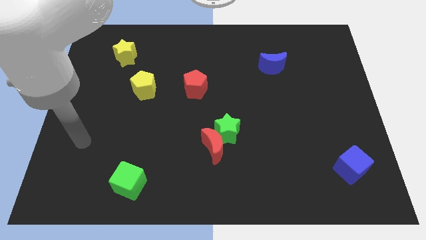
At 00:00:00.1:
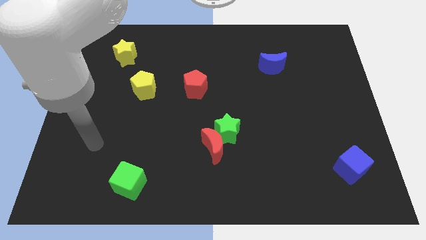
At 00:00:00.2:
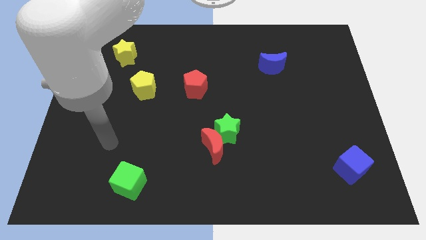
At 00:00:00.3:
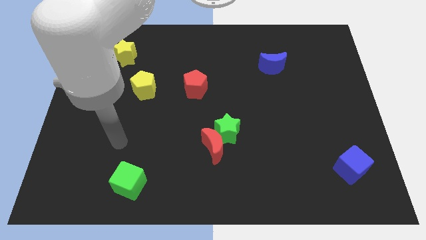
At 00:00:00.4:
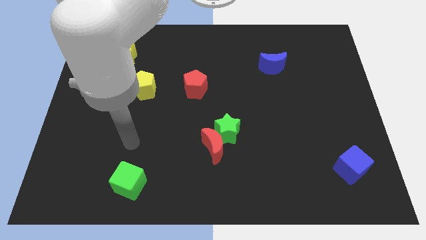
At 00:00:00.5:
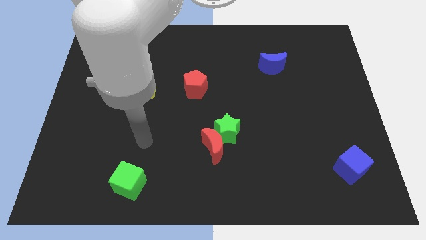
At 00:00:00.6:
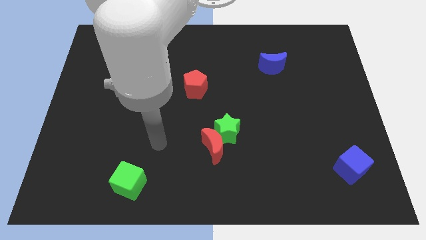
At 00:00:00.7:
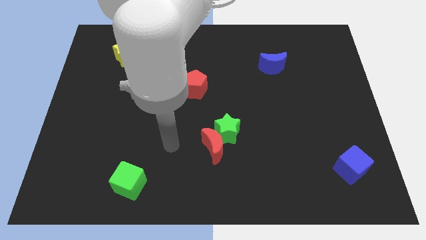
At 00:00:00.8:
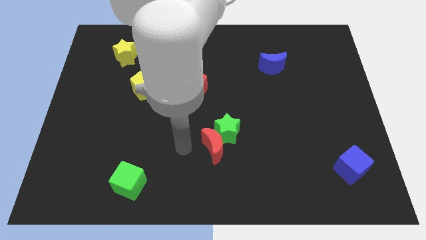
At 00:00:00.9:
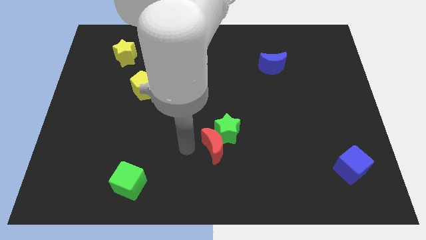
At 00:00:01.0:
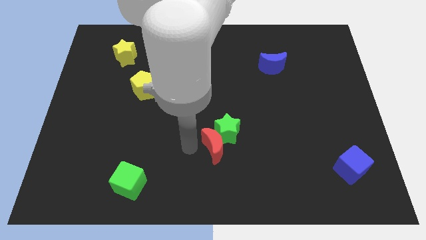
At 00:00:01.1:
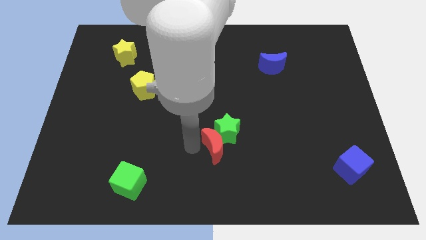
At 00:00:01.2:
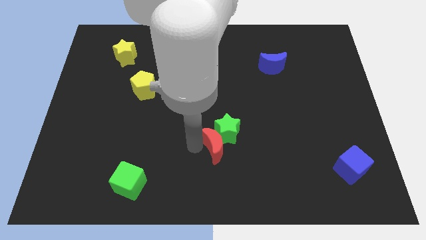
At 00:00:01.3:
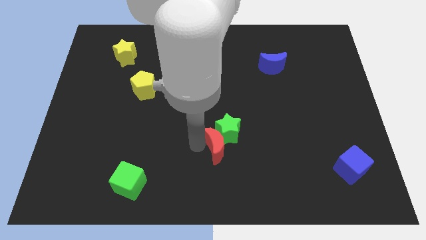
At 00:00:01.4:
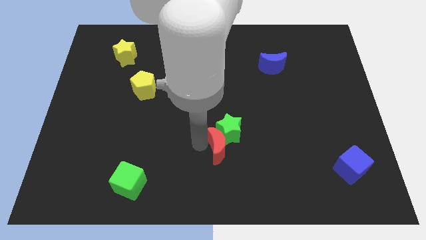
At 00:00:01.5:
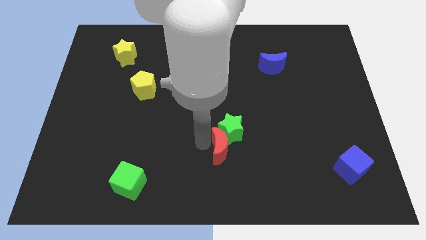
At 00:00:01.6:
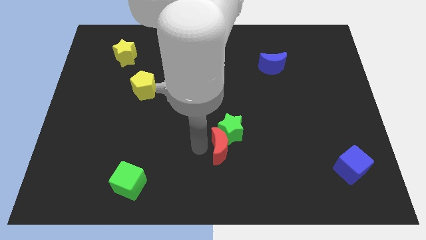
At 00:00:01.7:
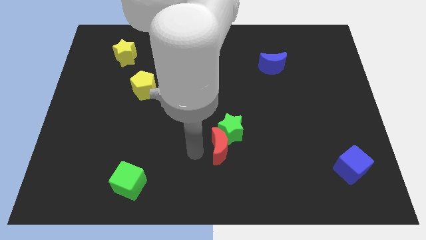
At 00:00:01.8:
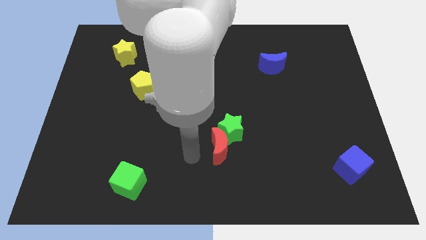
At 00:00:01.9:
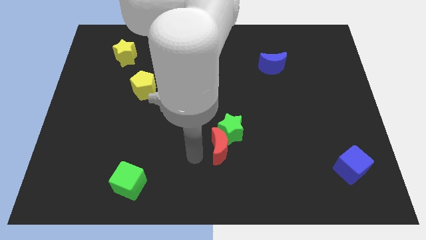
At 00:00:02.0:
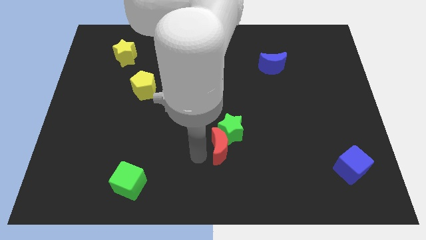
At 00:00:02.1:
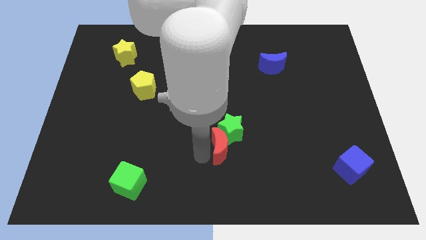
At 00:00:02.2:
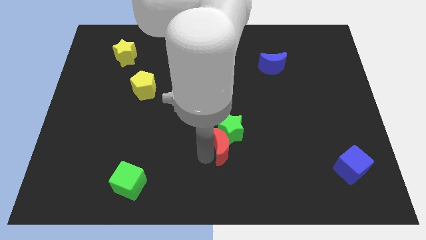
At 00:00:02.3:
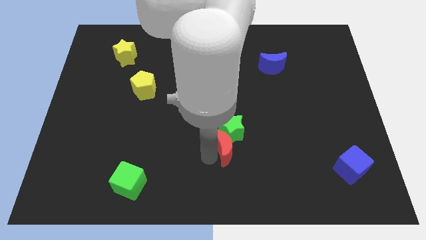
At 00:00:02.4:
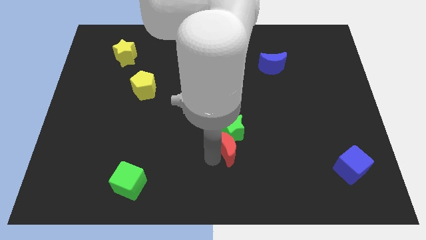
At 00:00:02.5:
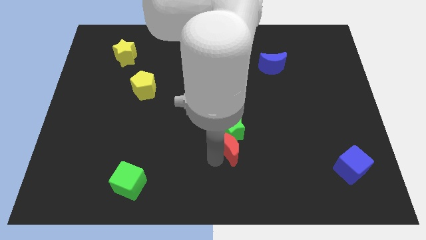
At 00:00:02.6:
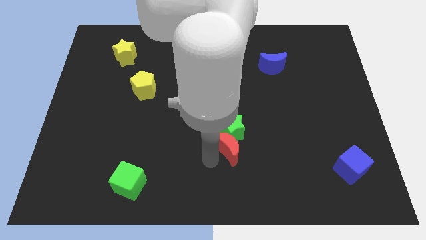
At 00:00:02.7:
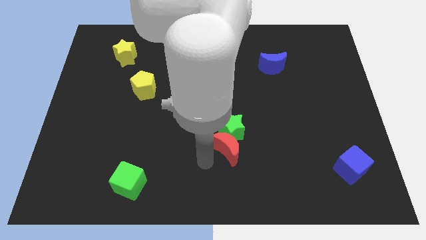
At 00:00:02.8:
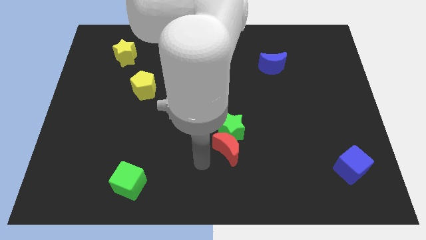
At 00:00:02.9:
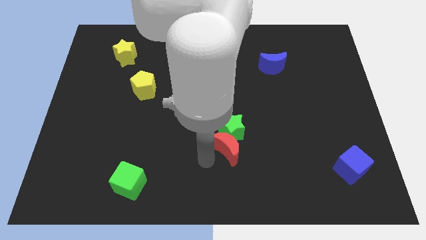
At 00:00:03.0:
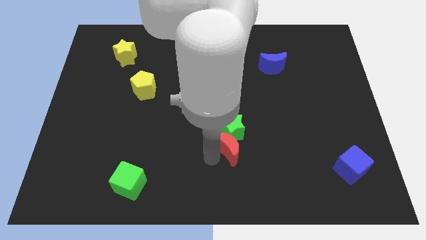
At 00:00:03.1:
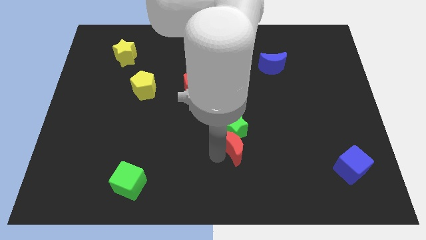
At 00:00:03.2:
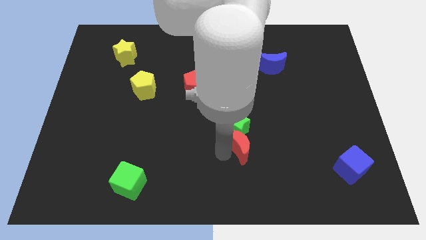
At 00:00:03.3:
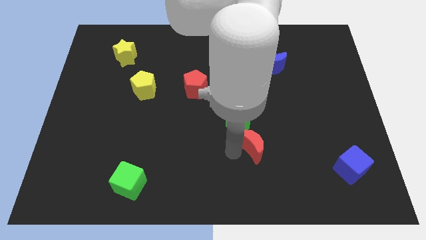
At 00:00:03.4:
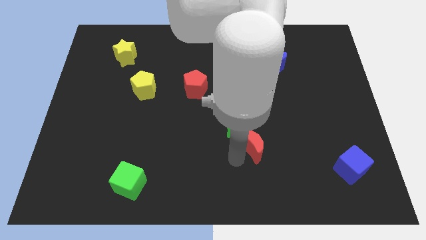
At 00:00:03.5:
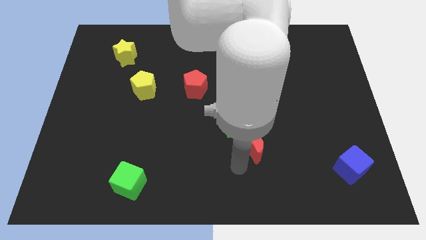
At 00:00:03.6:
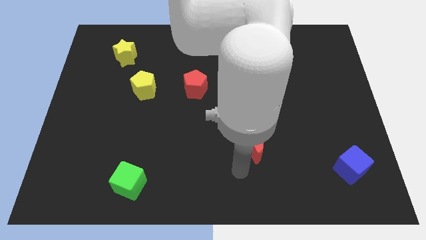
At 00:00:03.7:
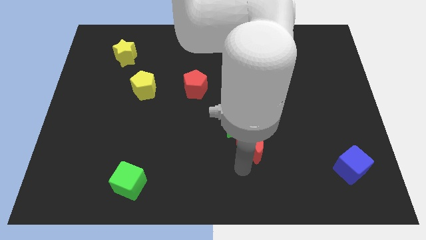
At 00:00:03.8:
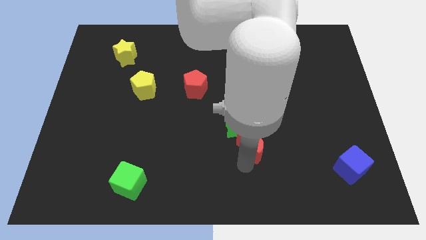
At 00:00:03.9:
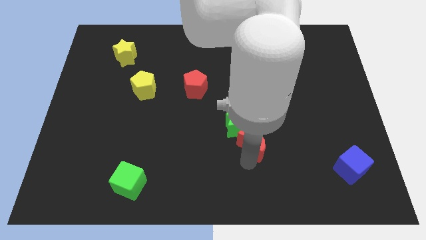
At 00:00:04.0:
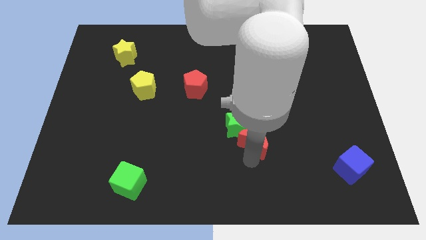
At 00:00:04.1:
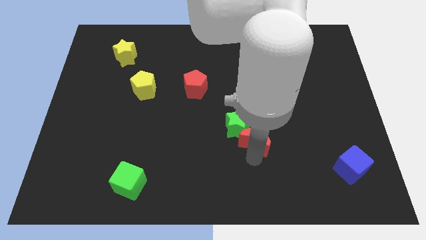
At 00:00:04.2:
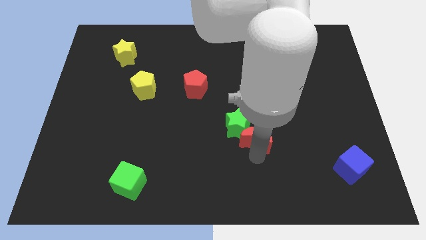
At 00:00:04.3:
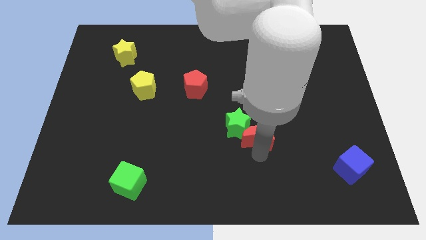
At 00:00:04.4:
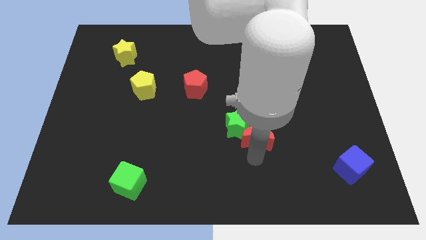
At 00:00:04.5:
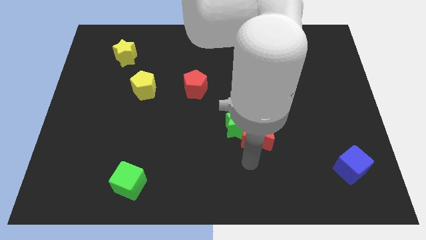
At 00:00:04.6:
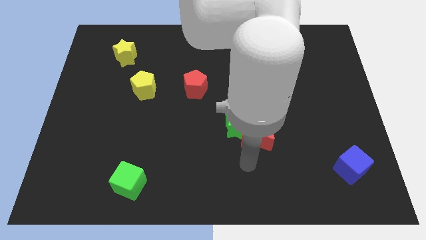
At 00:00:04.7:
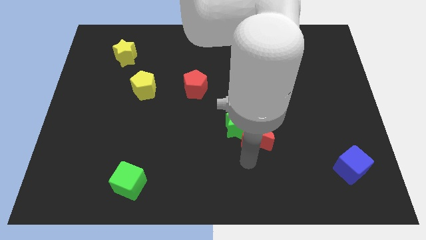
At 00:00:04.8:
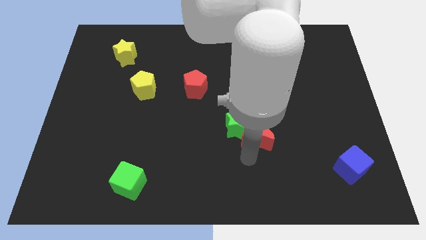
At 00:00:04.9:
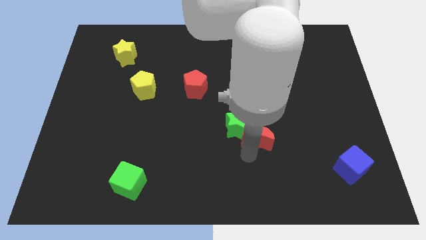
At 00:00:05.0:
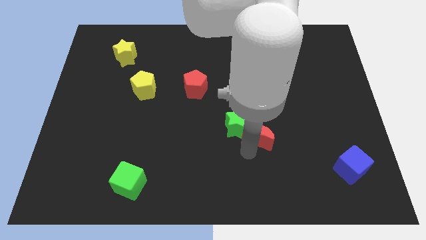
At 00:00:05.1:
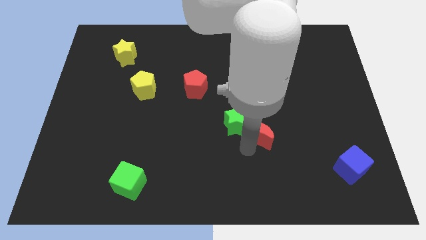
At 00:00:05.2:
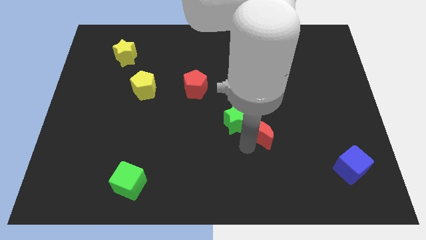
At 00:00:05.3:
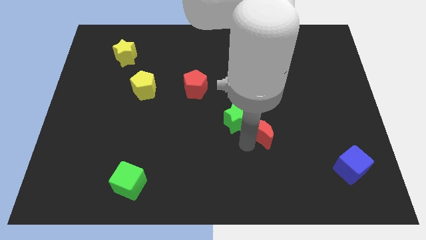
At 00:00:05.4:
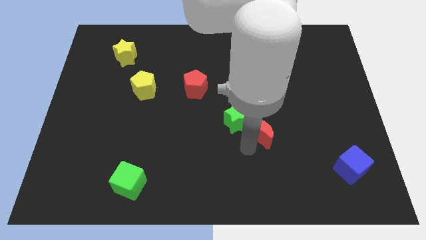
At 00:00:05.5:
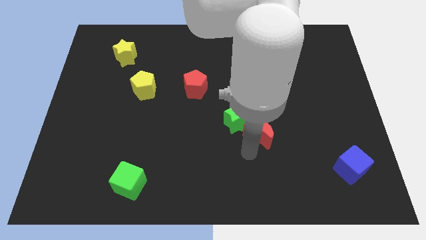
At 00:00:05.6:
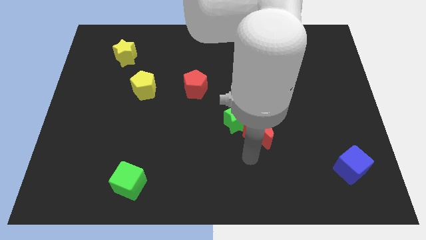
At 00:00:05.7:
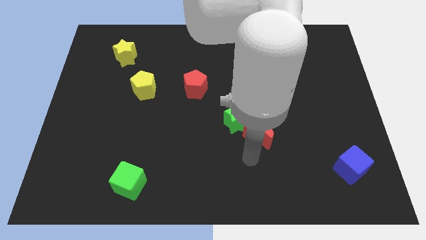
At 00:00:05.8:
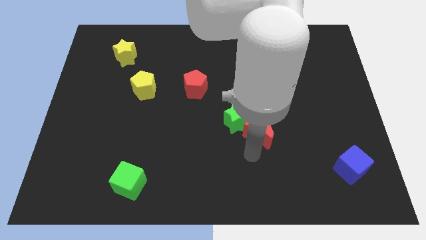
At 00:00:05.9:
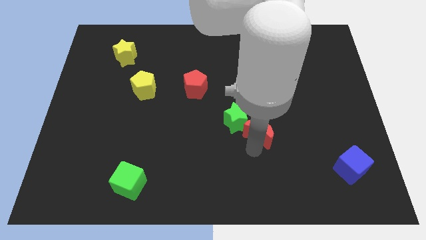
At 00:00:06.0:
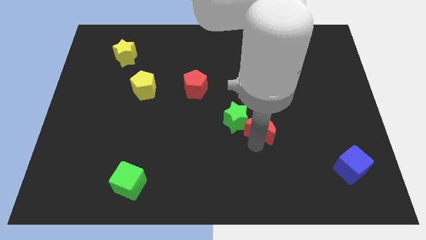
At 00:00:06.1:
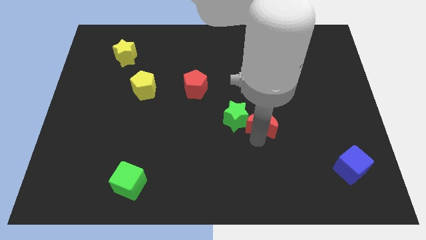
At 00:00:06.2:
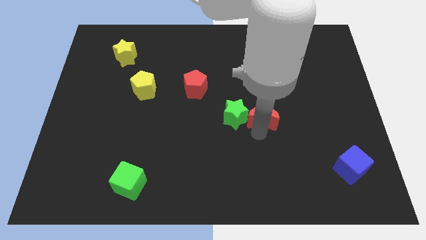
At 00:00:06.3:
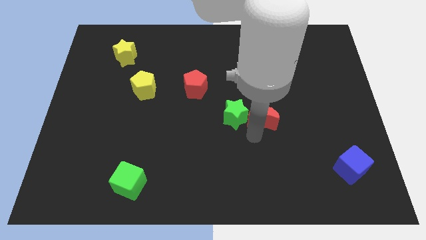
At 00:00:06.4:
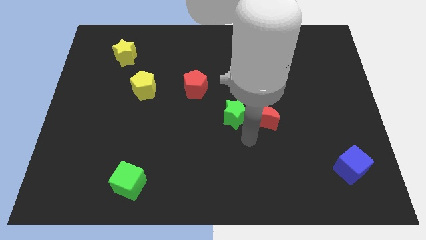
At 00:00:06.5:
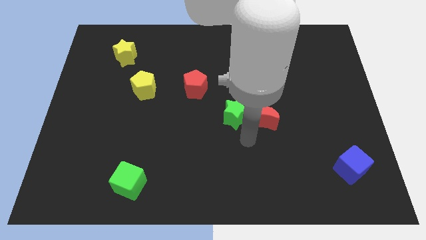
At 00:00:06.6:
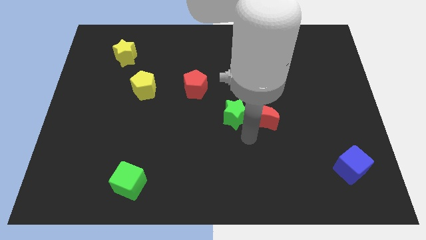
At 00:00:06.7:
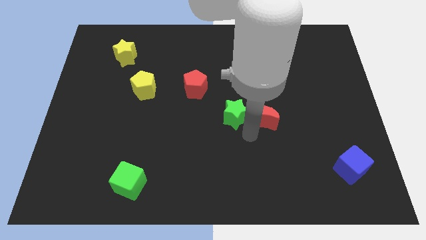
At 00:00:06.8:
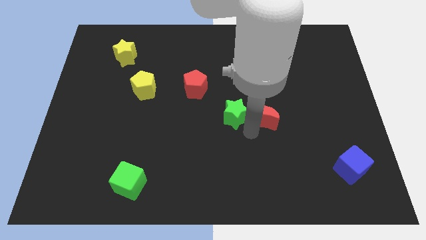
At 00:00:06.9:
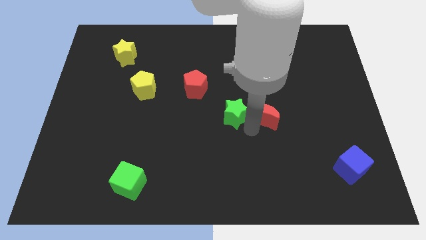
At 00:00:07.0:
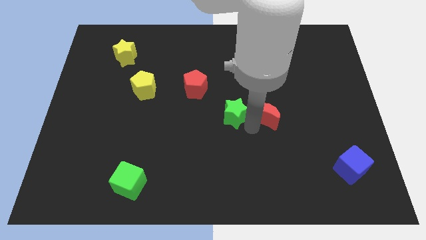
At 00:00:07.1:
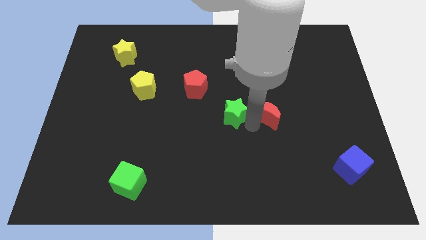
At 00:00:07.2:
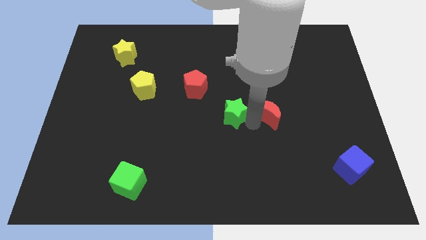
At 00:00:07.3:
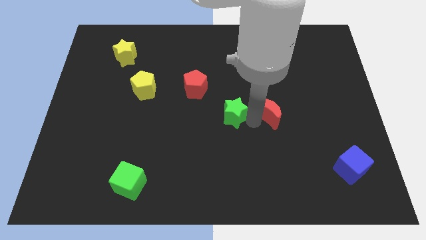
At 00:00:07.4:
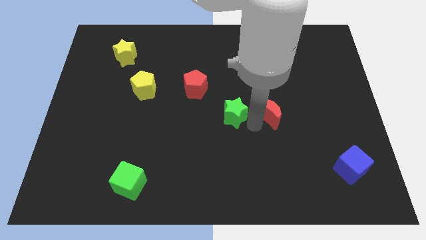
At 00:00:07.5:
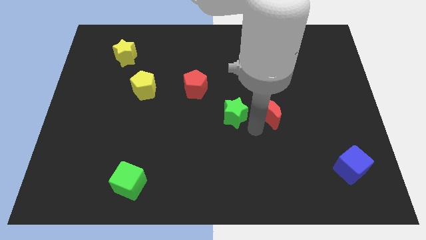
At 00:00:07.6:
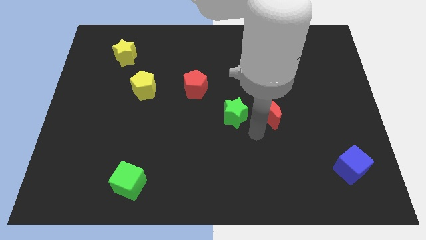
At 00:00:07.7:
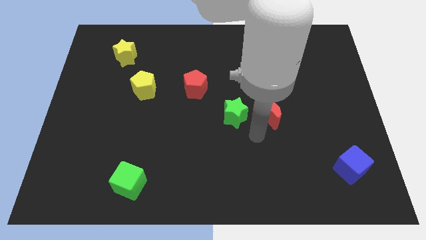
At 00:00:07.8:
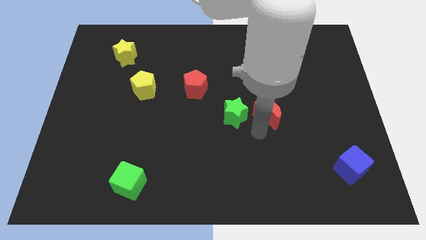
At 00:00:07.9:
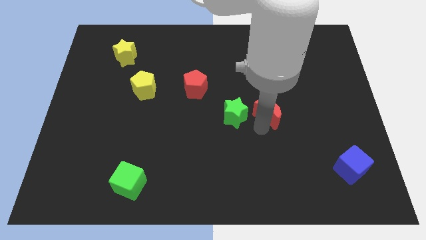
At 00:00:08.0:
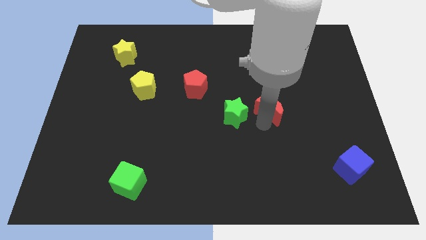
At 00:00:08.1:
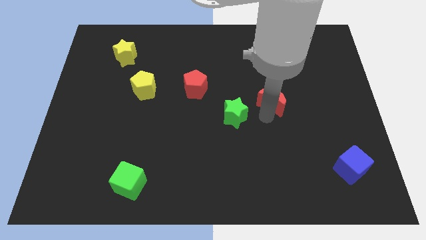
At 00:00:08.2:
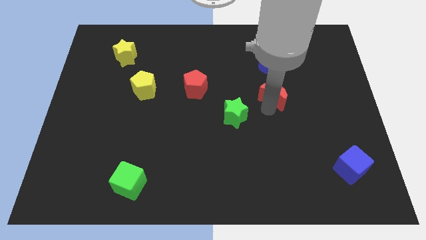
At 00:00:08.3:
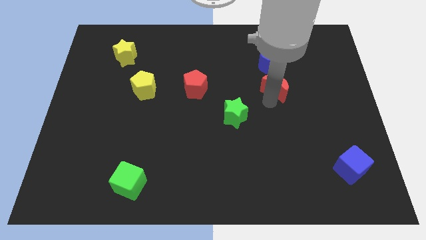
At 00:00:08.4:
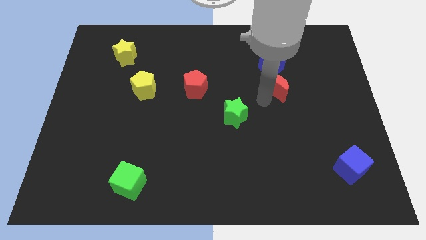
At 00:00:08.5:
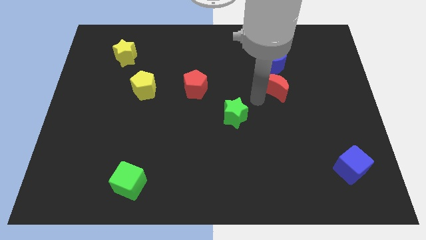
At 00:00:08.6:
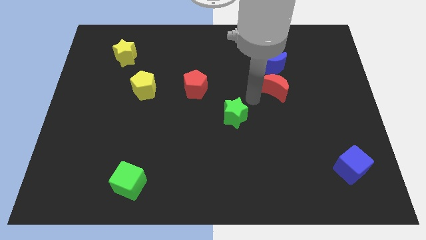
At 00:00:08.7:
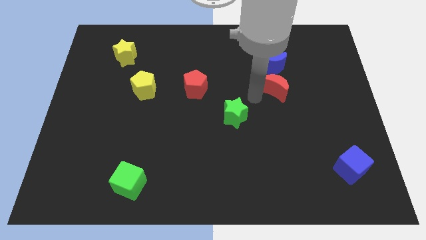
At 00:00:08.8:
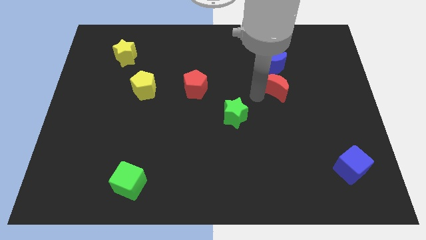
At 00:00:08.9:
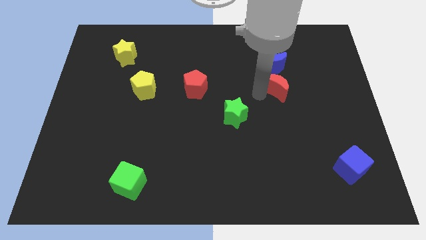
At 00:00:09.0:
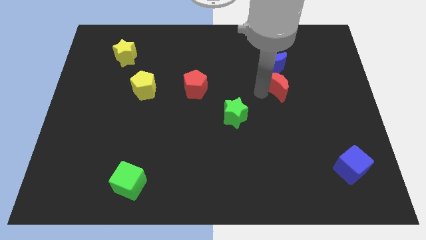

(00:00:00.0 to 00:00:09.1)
move the red moon to the bottom right of the blue moon
